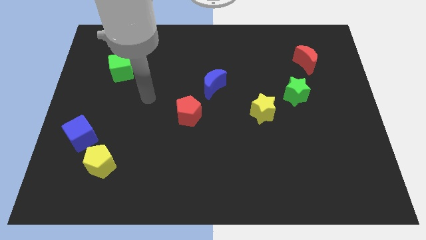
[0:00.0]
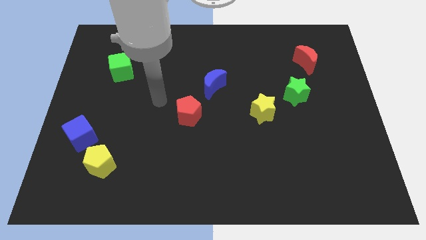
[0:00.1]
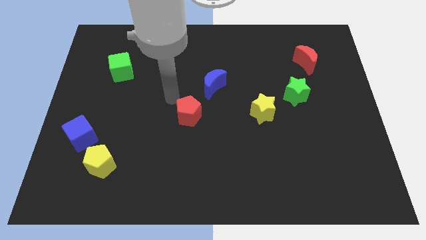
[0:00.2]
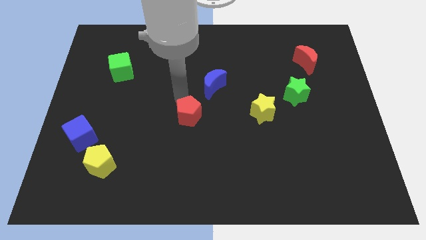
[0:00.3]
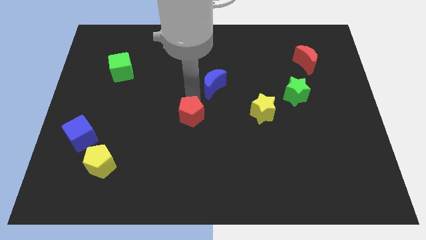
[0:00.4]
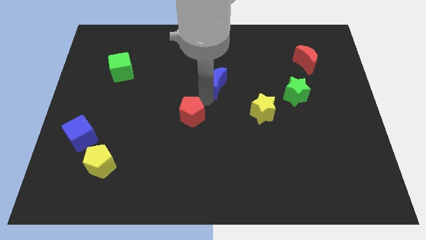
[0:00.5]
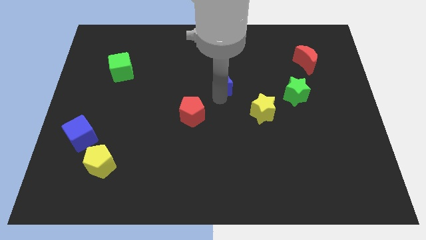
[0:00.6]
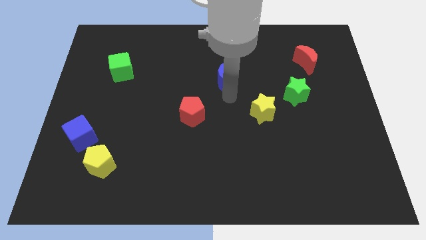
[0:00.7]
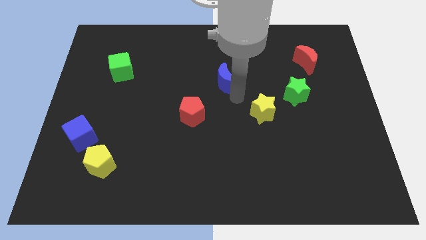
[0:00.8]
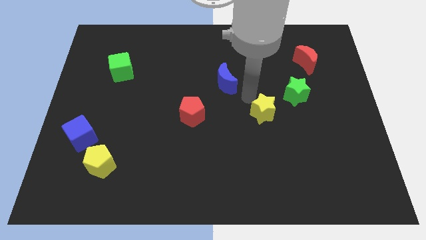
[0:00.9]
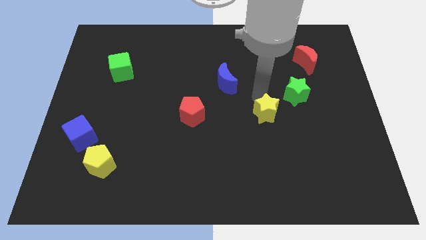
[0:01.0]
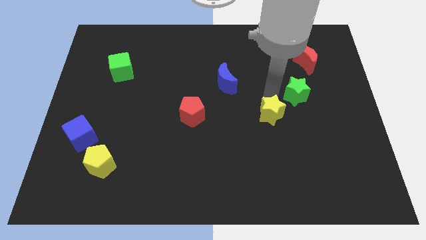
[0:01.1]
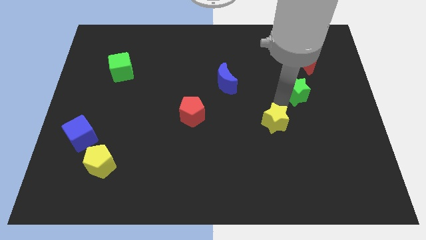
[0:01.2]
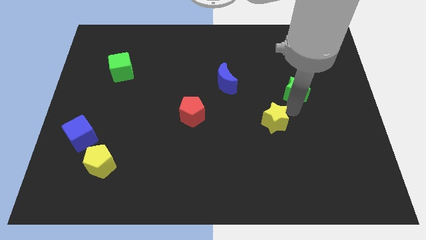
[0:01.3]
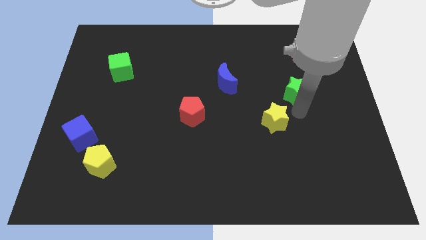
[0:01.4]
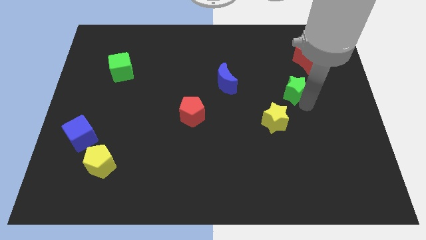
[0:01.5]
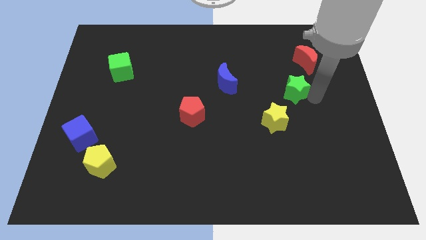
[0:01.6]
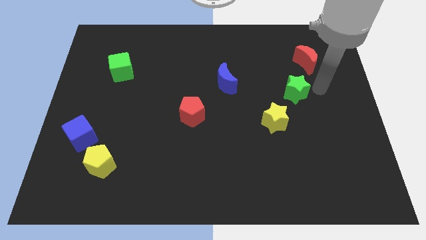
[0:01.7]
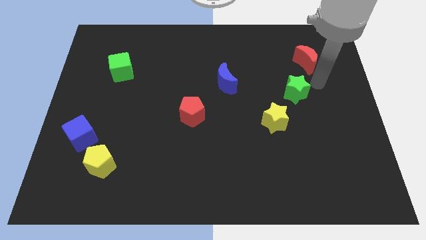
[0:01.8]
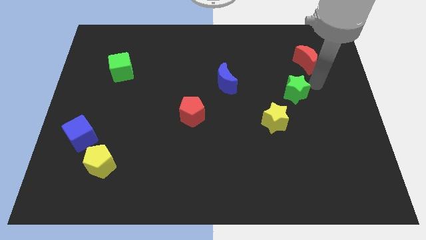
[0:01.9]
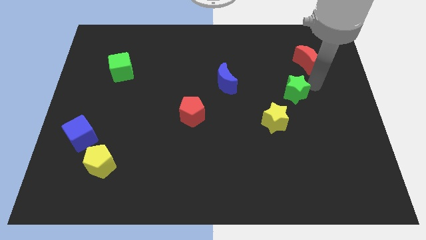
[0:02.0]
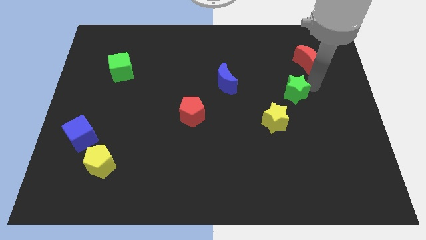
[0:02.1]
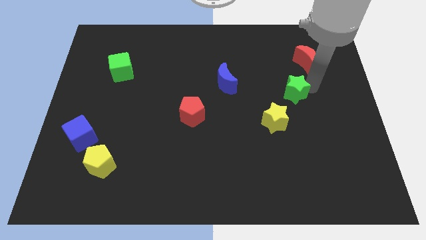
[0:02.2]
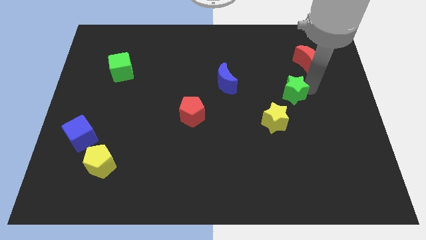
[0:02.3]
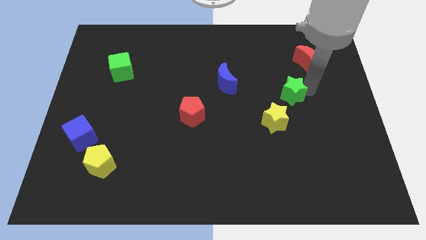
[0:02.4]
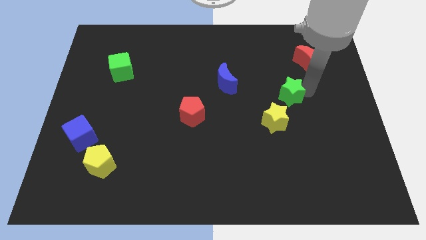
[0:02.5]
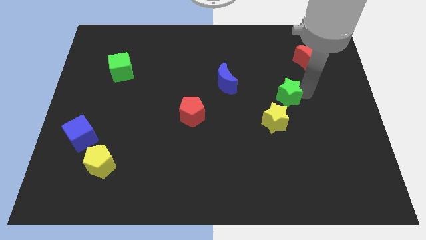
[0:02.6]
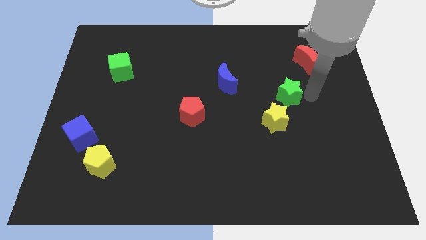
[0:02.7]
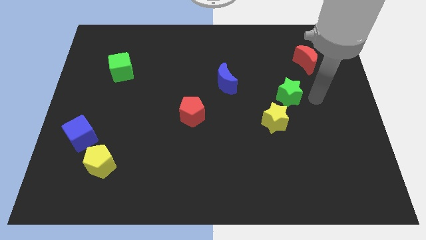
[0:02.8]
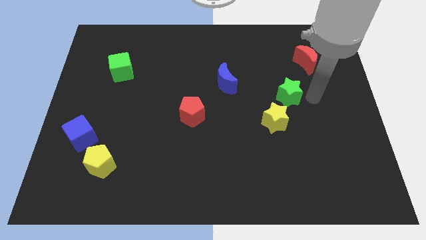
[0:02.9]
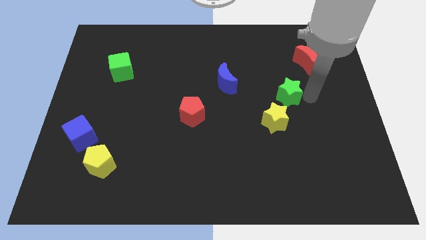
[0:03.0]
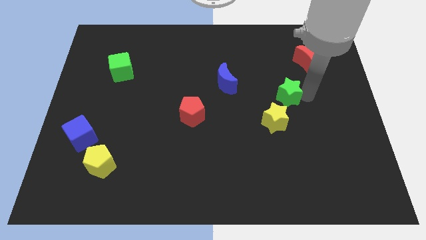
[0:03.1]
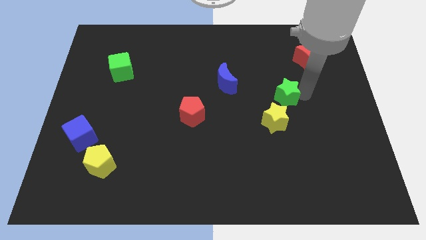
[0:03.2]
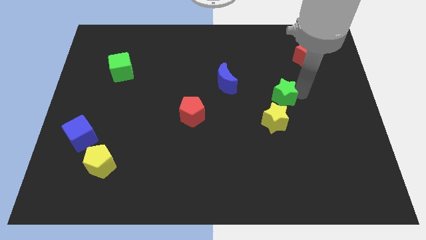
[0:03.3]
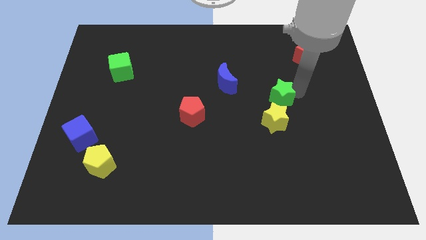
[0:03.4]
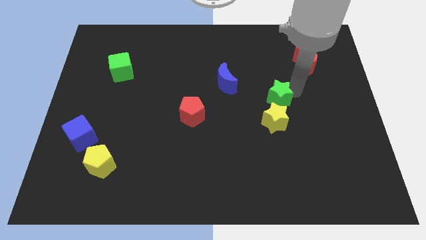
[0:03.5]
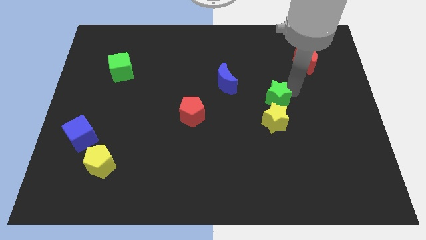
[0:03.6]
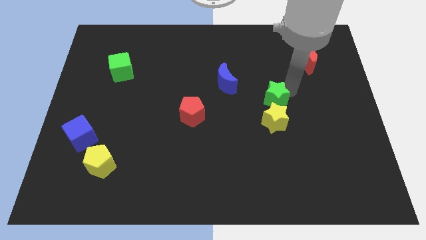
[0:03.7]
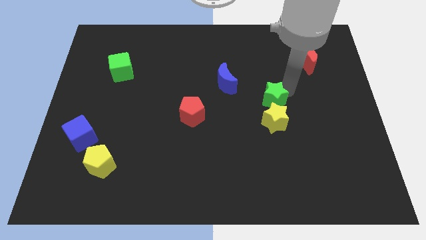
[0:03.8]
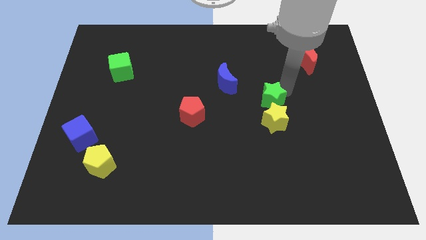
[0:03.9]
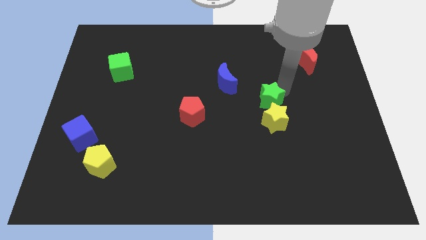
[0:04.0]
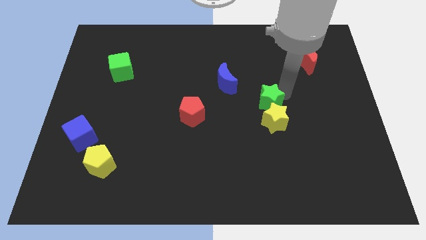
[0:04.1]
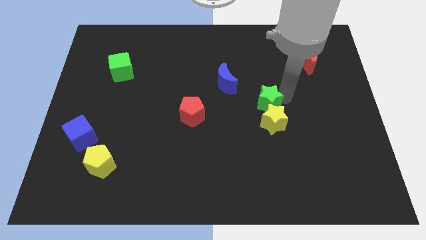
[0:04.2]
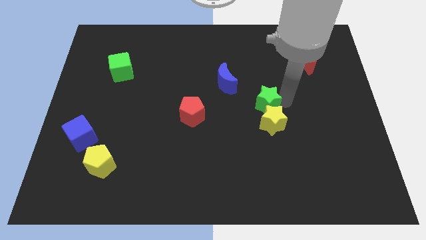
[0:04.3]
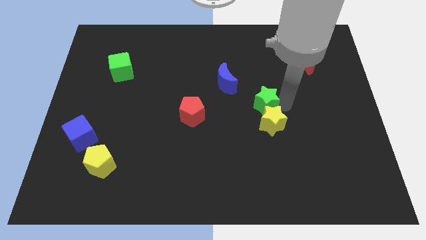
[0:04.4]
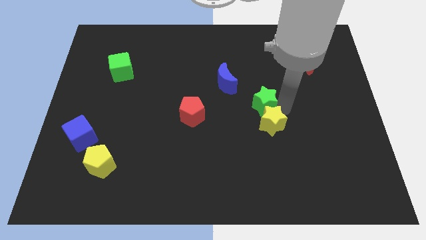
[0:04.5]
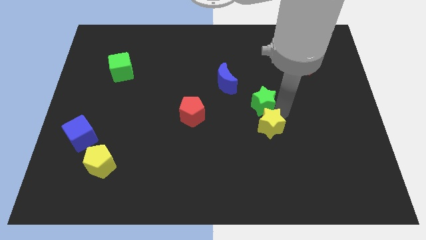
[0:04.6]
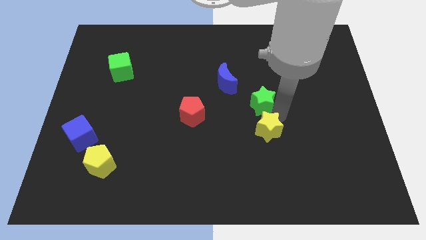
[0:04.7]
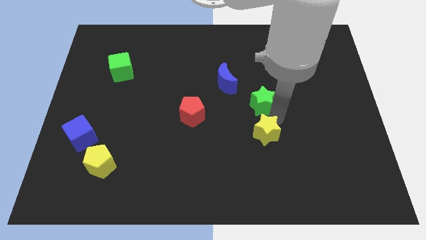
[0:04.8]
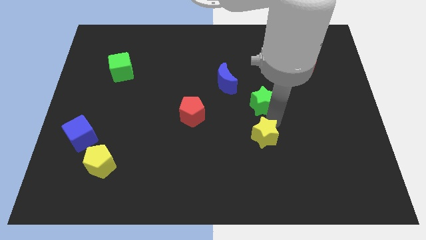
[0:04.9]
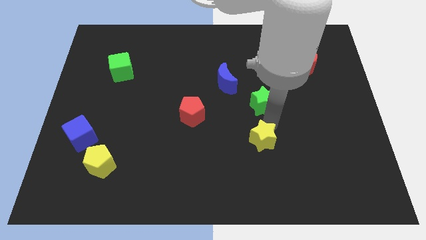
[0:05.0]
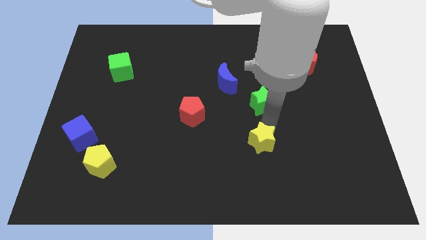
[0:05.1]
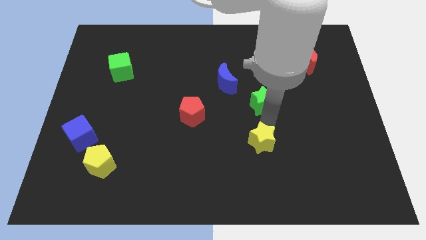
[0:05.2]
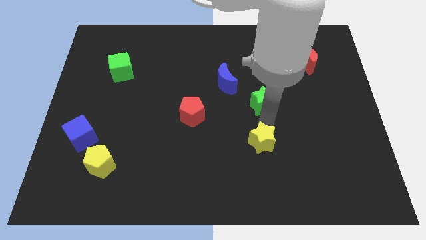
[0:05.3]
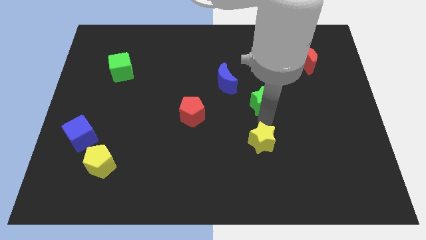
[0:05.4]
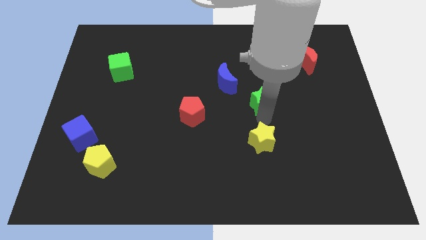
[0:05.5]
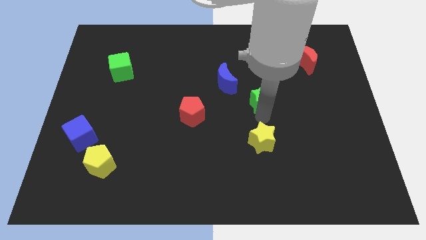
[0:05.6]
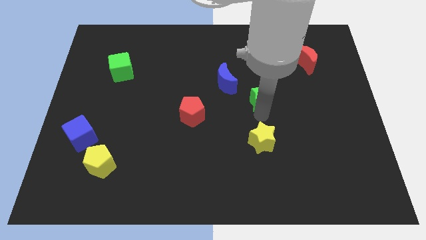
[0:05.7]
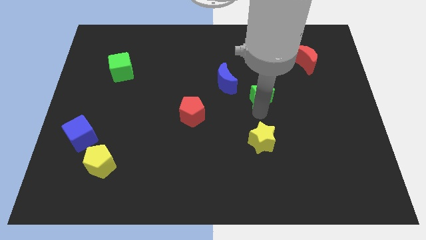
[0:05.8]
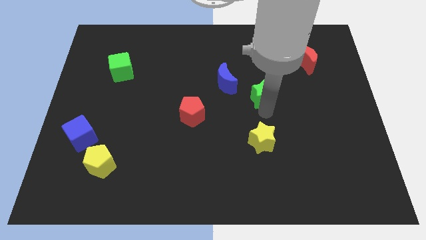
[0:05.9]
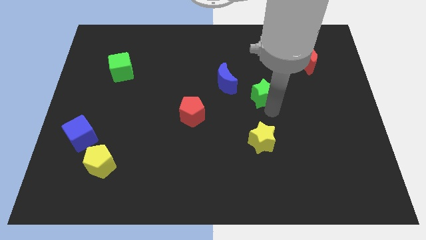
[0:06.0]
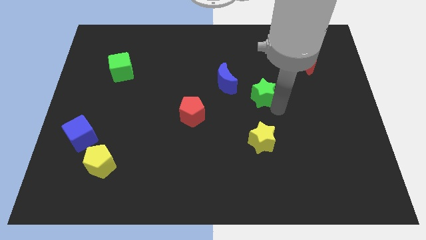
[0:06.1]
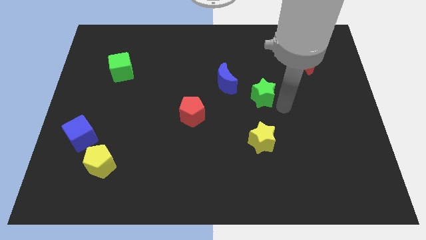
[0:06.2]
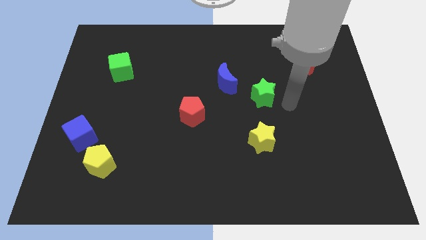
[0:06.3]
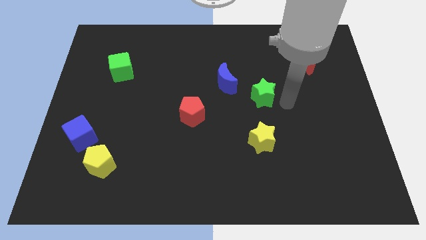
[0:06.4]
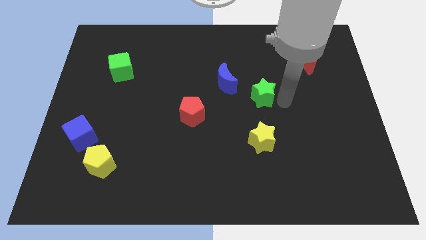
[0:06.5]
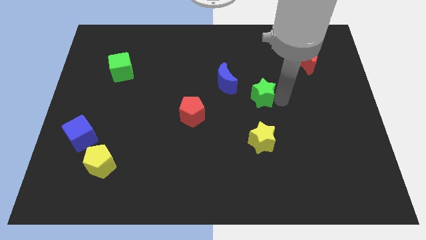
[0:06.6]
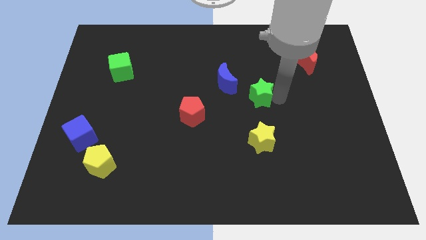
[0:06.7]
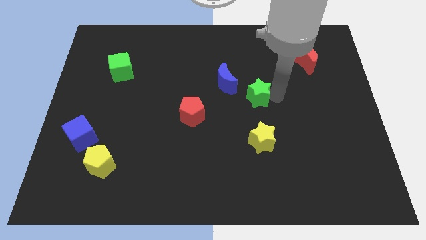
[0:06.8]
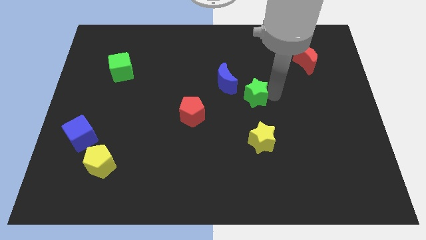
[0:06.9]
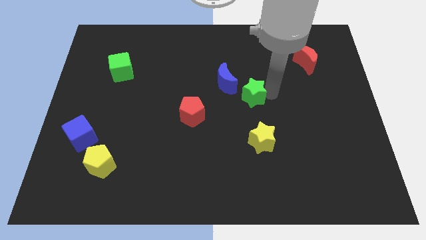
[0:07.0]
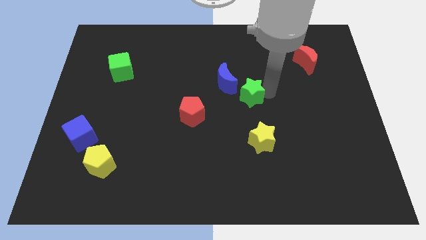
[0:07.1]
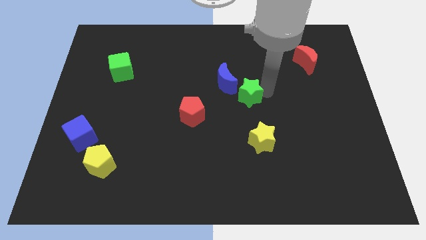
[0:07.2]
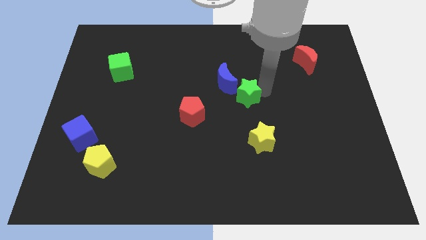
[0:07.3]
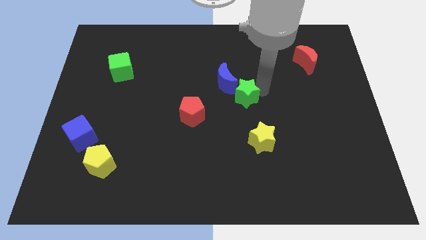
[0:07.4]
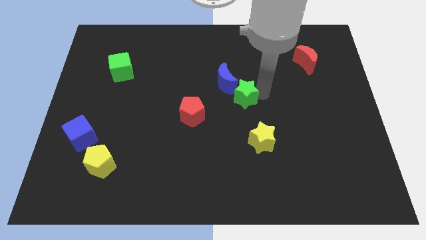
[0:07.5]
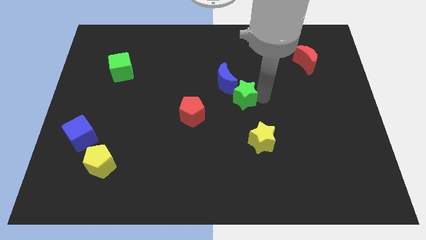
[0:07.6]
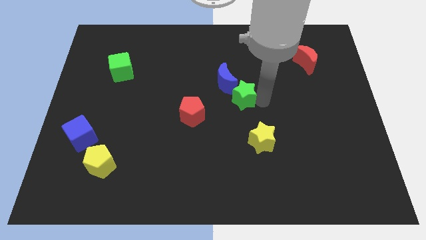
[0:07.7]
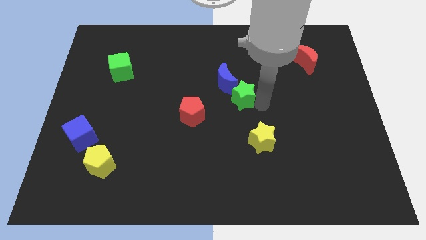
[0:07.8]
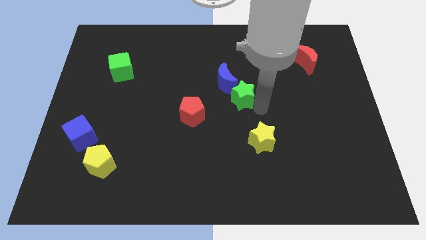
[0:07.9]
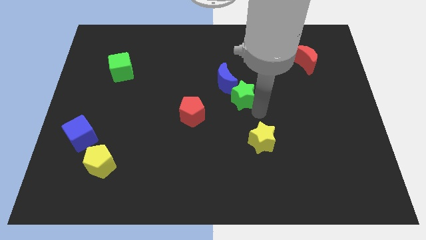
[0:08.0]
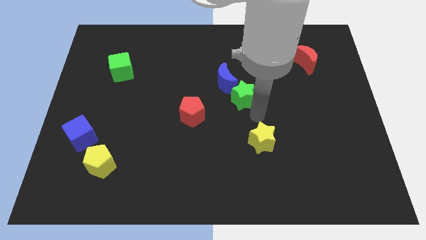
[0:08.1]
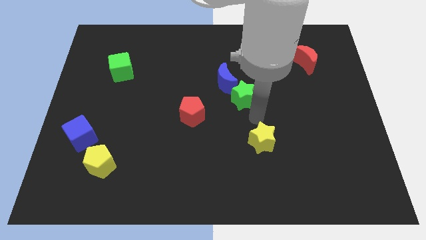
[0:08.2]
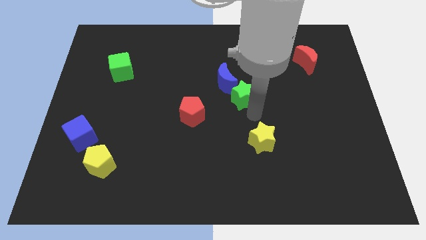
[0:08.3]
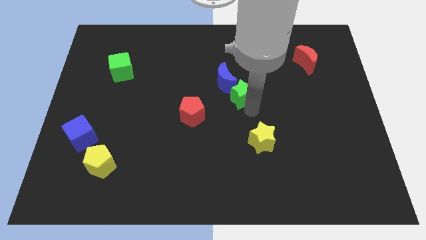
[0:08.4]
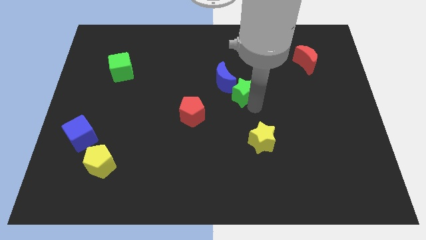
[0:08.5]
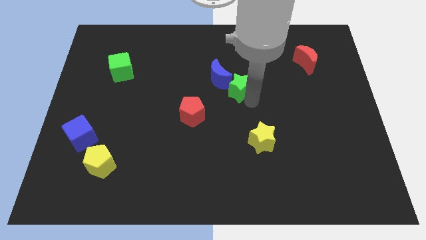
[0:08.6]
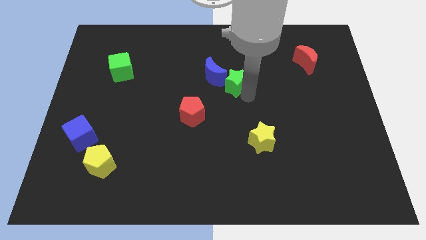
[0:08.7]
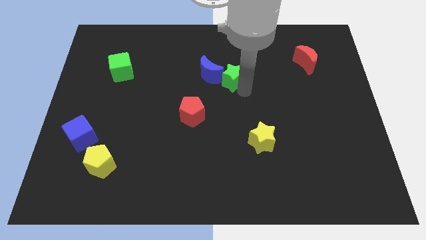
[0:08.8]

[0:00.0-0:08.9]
move the green star towards the blue moon
